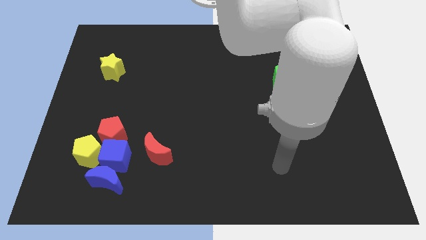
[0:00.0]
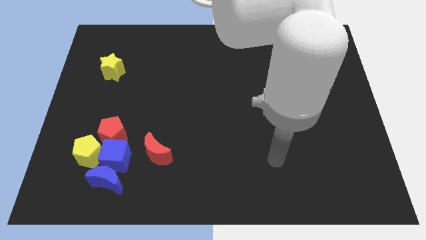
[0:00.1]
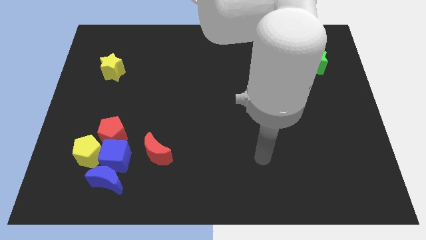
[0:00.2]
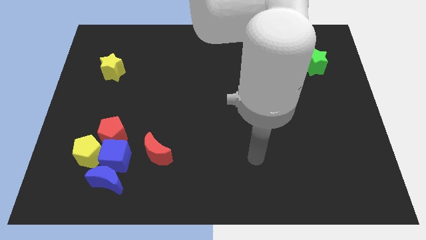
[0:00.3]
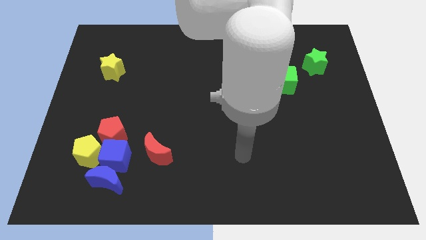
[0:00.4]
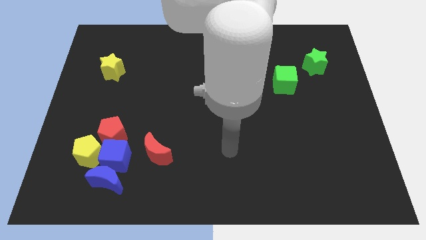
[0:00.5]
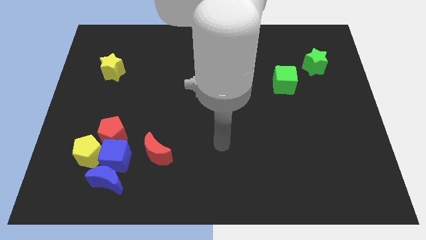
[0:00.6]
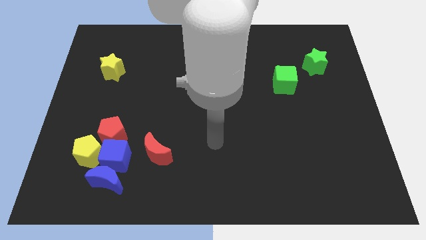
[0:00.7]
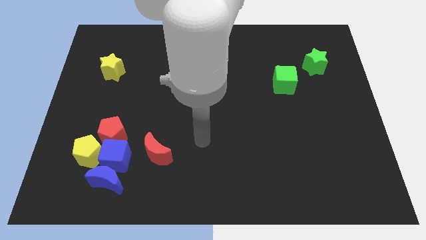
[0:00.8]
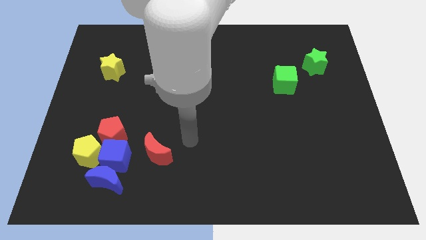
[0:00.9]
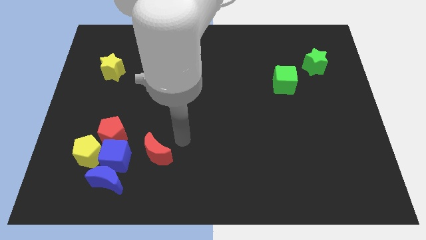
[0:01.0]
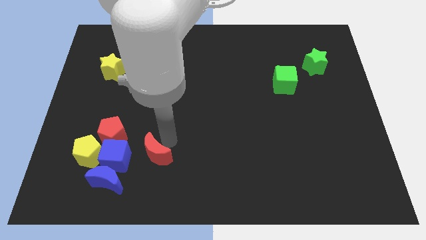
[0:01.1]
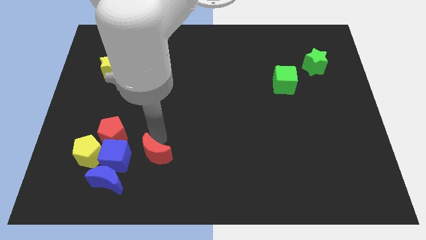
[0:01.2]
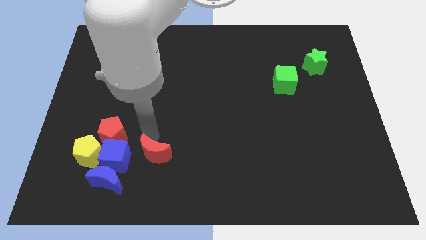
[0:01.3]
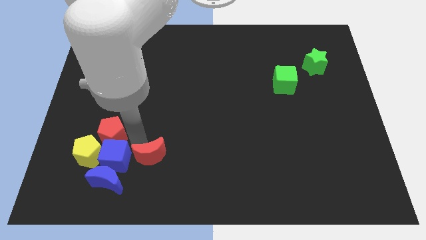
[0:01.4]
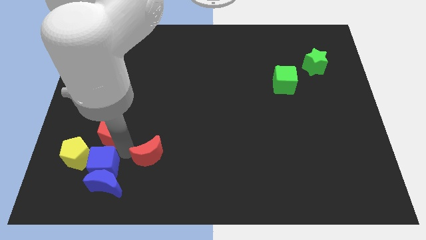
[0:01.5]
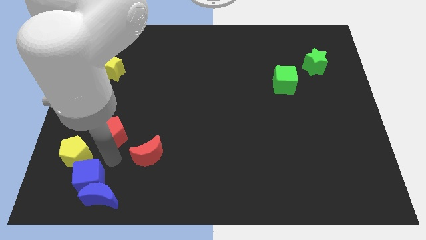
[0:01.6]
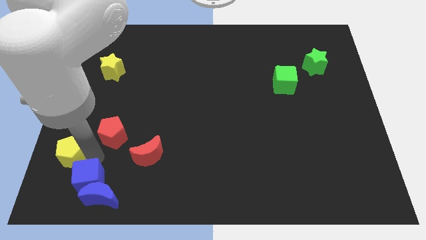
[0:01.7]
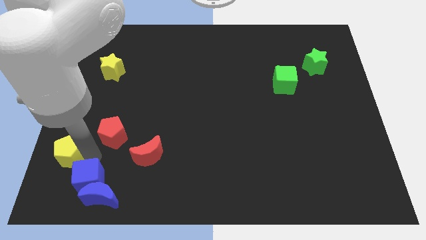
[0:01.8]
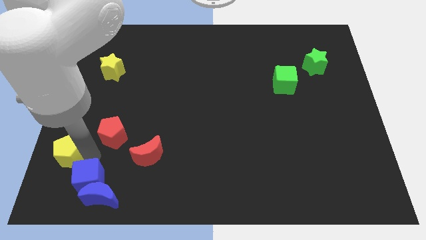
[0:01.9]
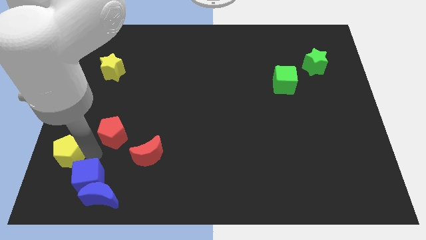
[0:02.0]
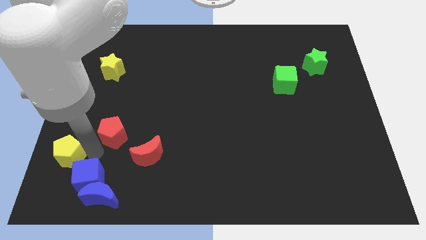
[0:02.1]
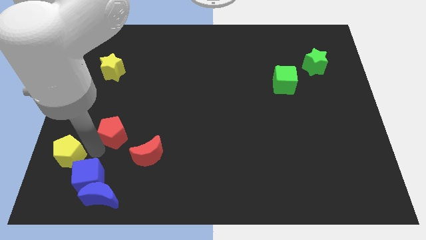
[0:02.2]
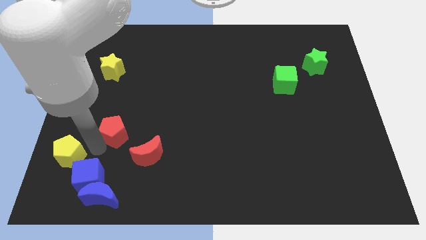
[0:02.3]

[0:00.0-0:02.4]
pull the red pentagon apart from the blue cube and yellow pentagon

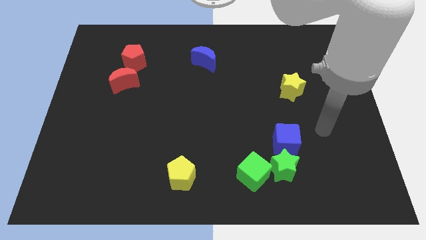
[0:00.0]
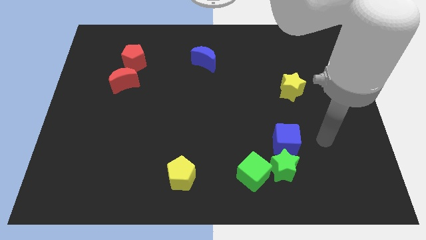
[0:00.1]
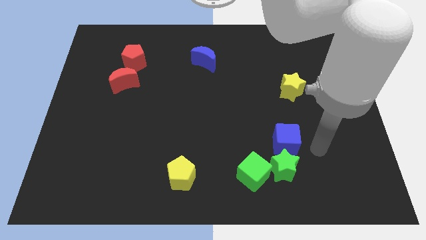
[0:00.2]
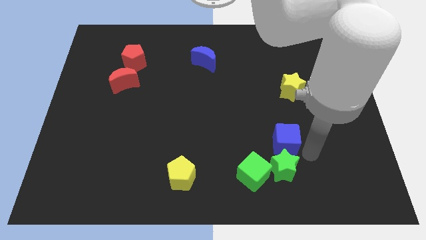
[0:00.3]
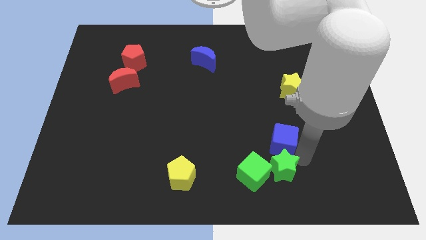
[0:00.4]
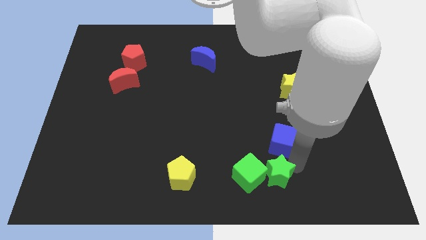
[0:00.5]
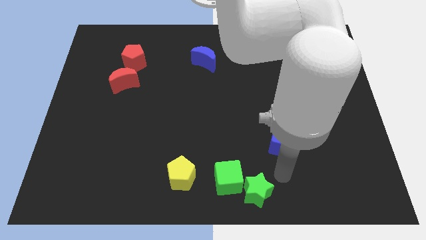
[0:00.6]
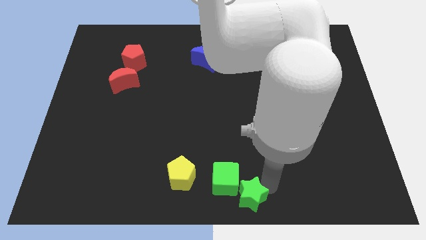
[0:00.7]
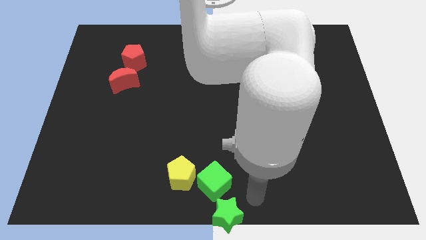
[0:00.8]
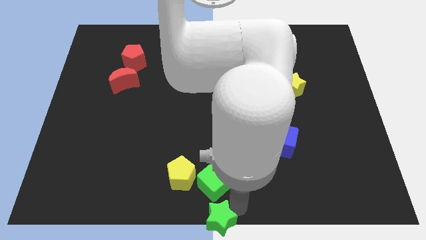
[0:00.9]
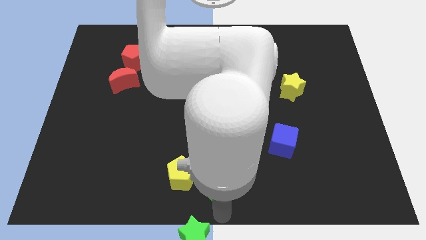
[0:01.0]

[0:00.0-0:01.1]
pull the green cube apart from the green star

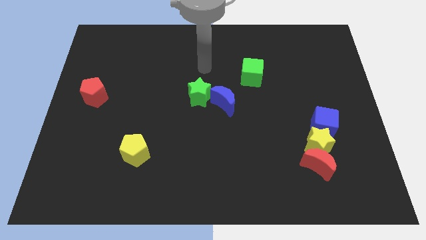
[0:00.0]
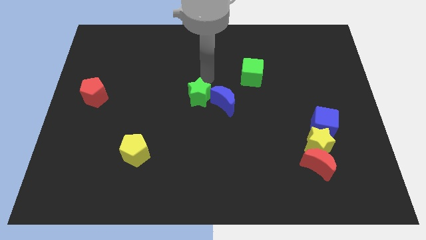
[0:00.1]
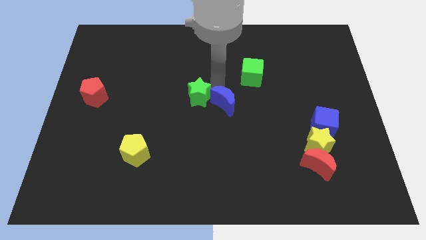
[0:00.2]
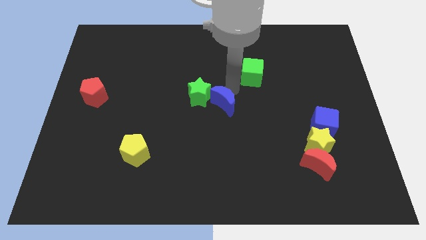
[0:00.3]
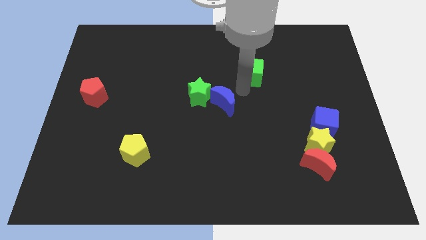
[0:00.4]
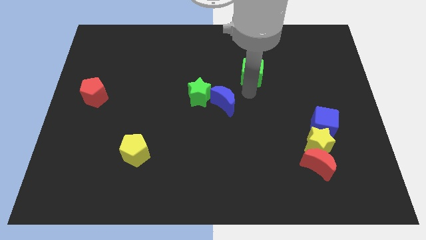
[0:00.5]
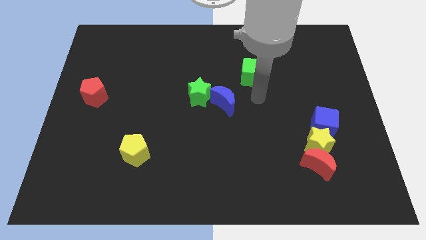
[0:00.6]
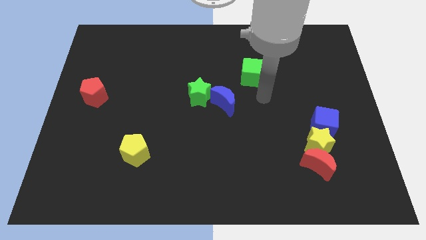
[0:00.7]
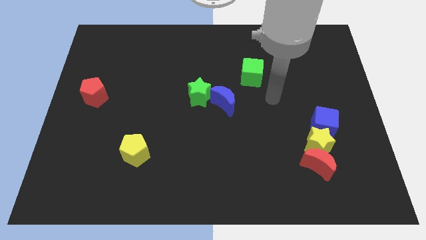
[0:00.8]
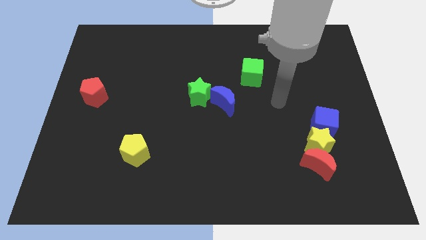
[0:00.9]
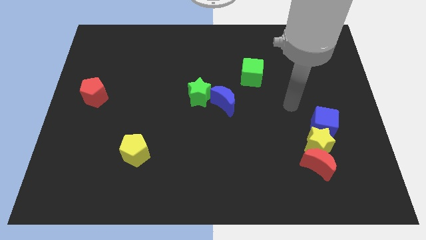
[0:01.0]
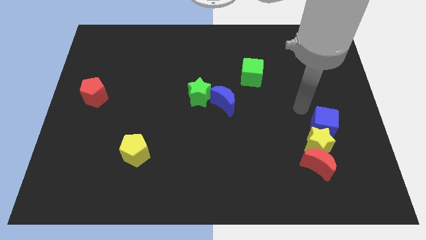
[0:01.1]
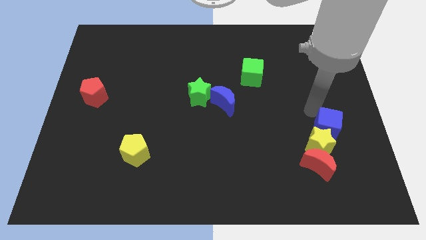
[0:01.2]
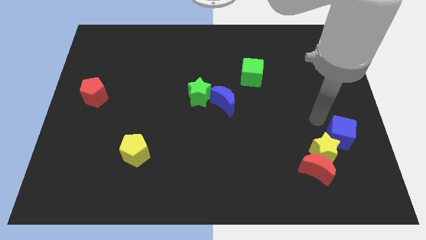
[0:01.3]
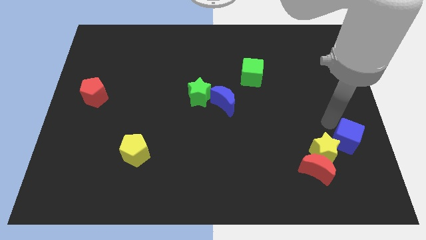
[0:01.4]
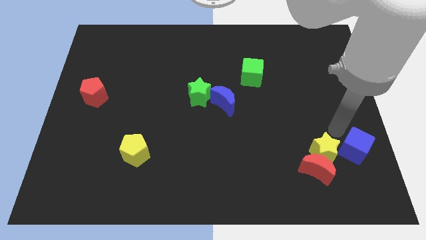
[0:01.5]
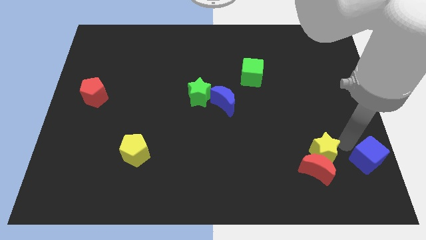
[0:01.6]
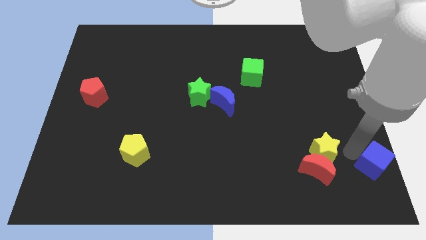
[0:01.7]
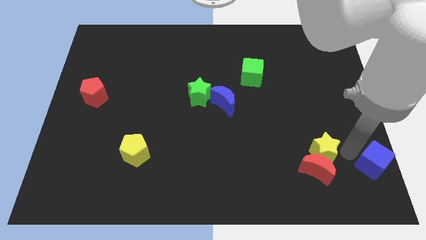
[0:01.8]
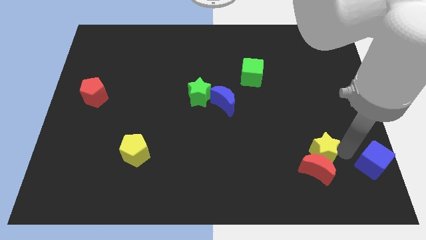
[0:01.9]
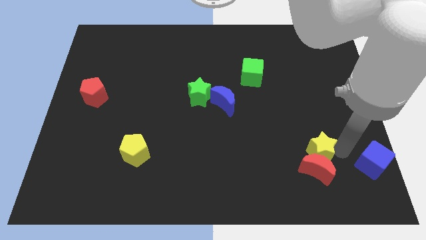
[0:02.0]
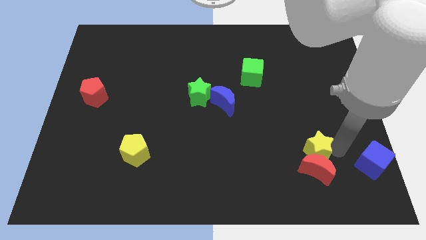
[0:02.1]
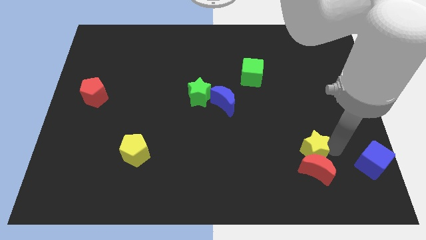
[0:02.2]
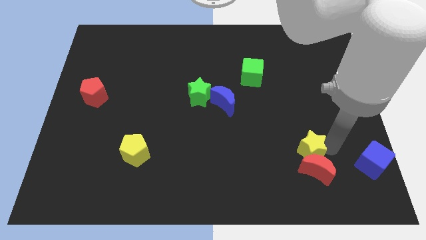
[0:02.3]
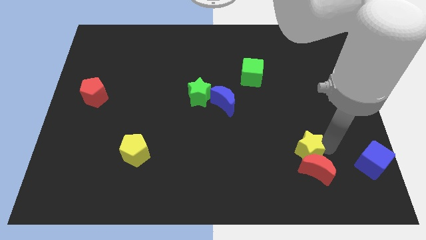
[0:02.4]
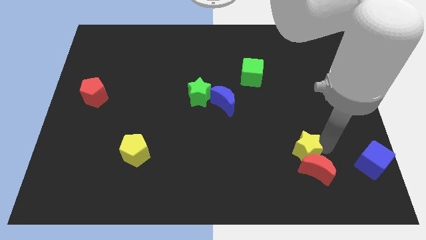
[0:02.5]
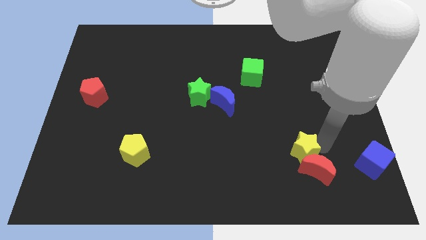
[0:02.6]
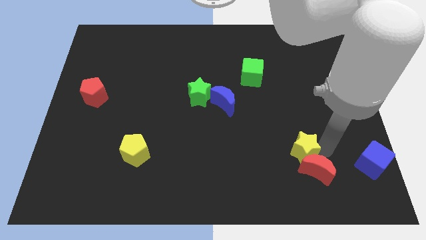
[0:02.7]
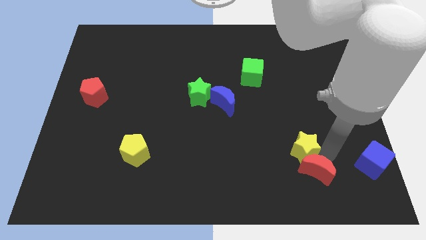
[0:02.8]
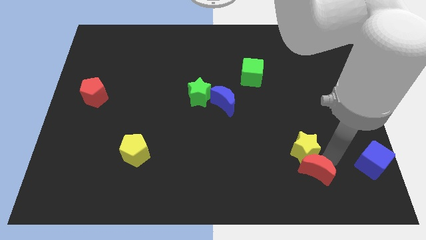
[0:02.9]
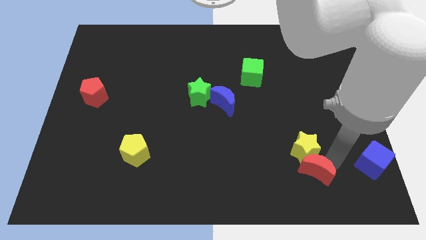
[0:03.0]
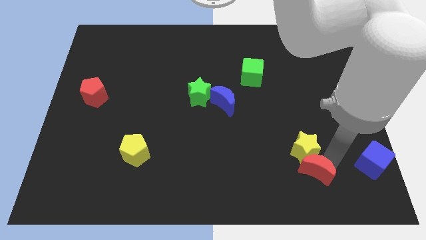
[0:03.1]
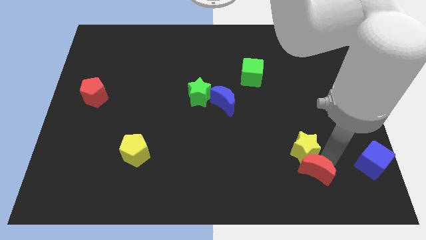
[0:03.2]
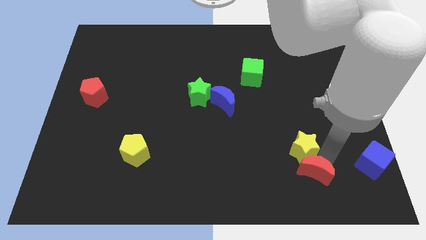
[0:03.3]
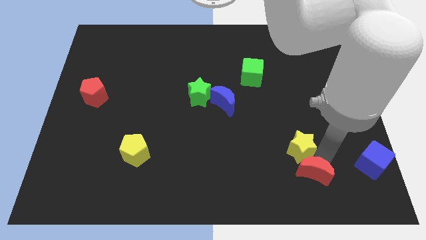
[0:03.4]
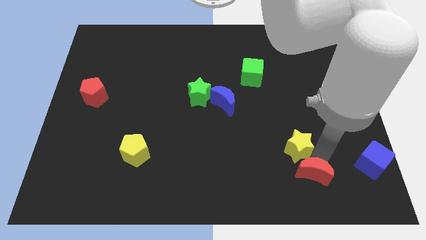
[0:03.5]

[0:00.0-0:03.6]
pull the yellow star apart from the red moon and blue cube

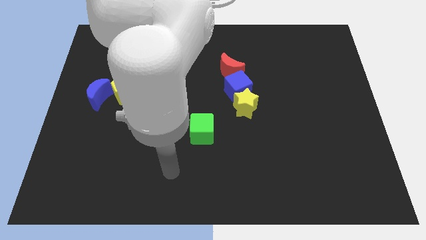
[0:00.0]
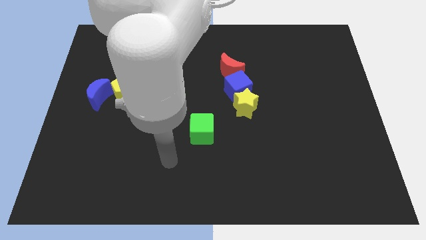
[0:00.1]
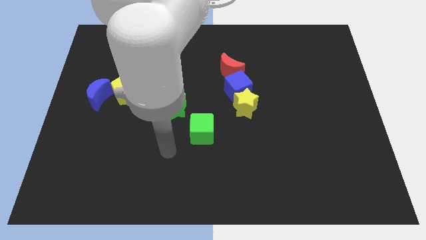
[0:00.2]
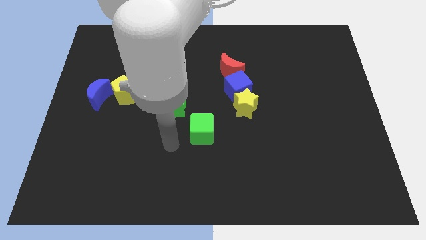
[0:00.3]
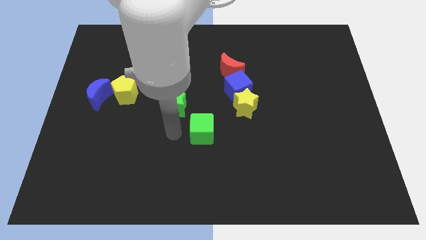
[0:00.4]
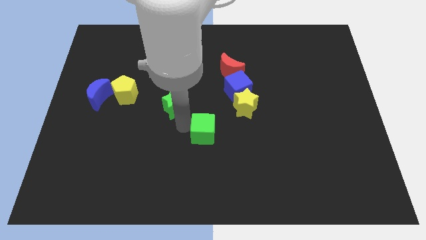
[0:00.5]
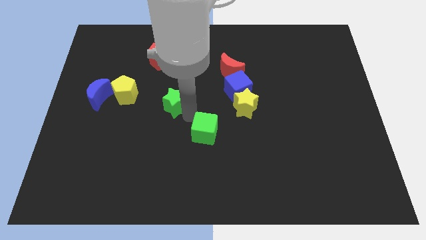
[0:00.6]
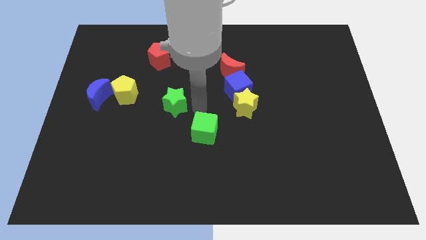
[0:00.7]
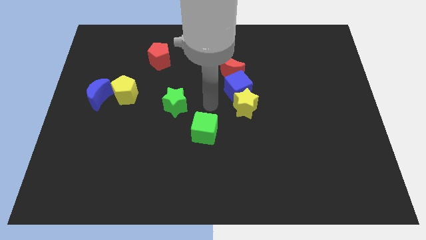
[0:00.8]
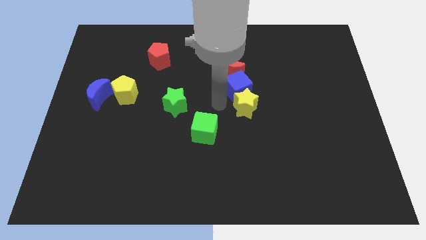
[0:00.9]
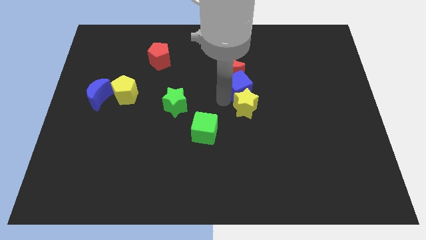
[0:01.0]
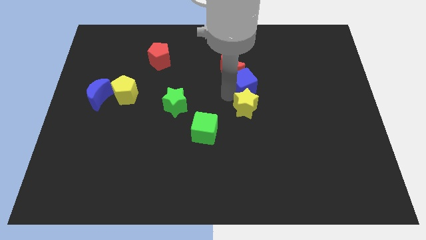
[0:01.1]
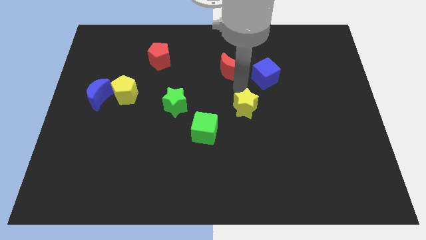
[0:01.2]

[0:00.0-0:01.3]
separate the yellow star from the blue cube

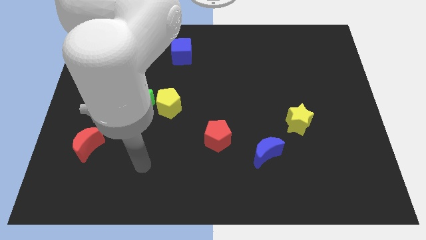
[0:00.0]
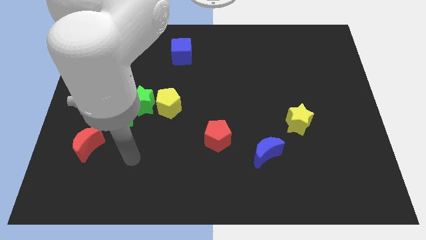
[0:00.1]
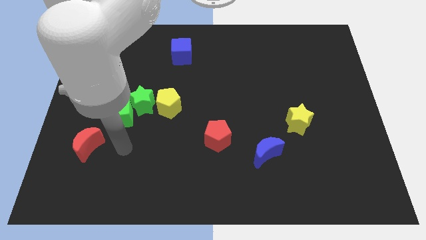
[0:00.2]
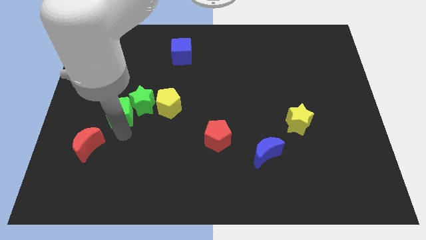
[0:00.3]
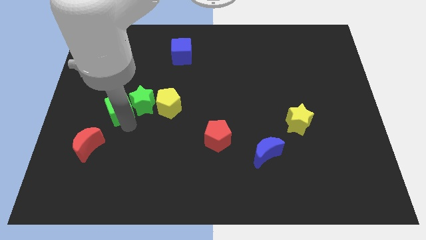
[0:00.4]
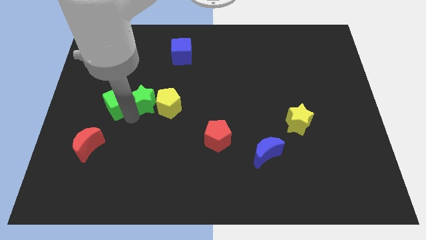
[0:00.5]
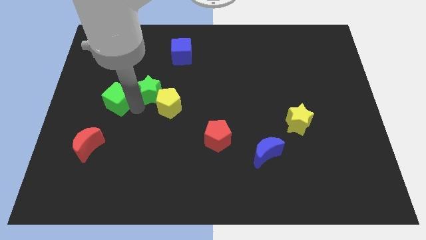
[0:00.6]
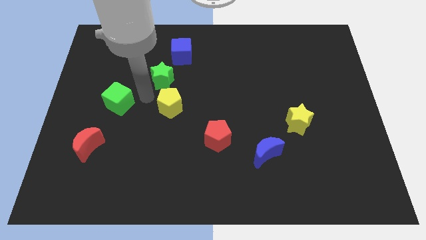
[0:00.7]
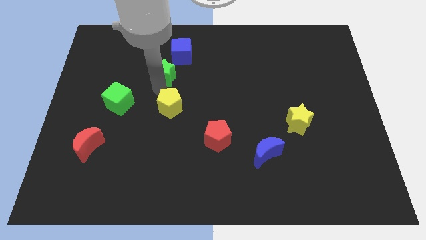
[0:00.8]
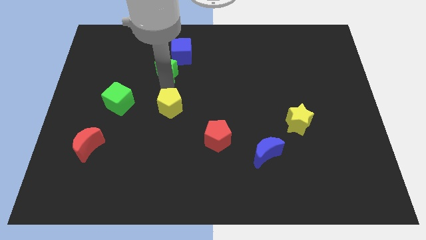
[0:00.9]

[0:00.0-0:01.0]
move the yellow pentagon away from the green star
